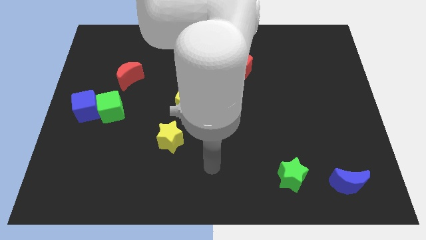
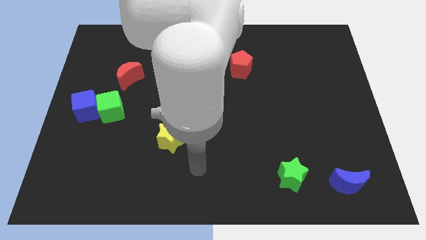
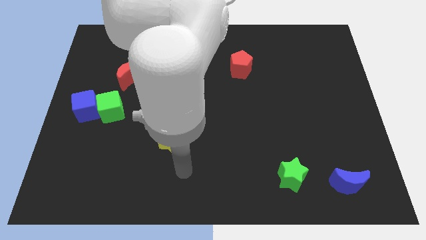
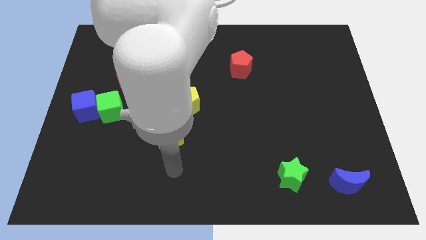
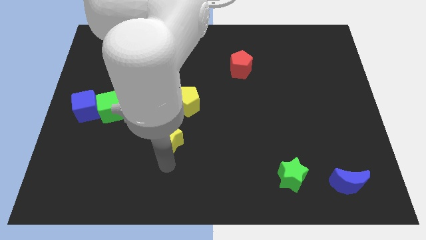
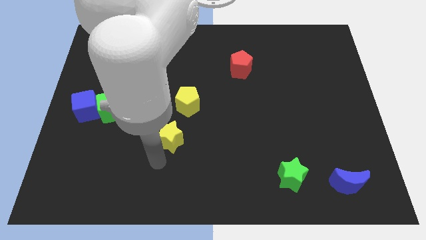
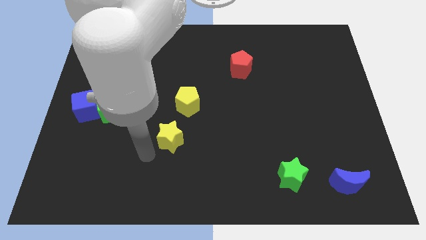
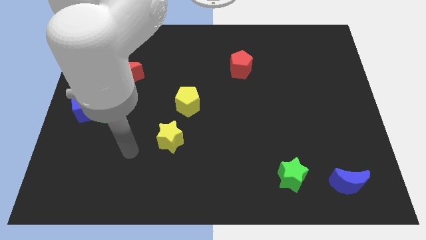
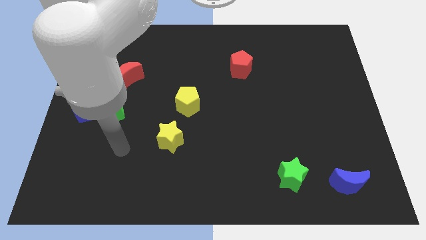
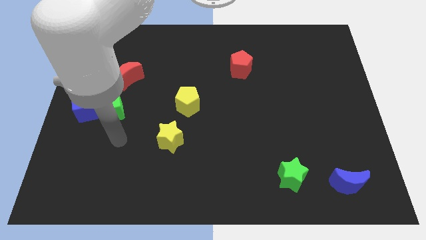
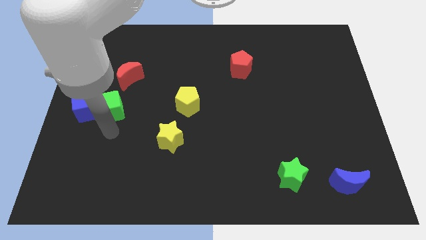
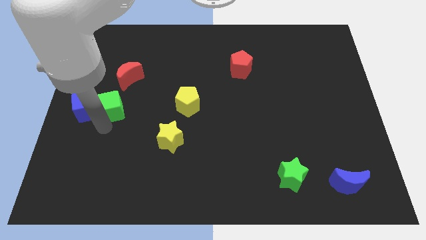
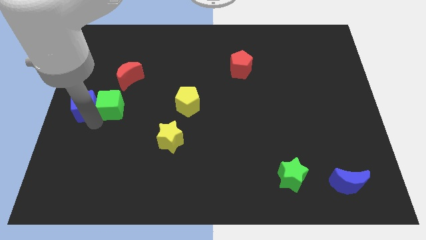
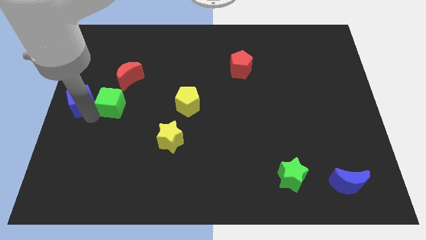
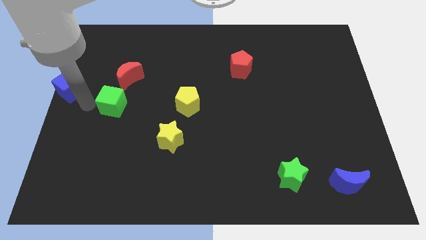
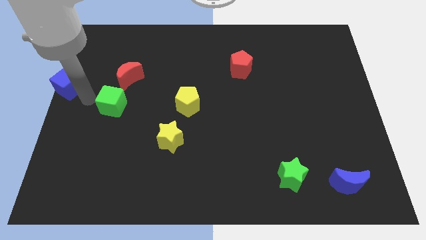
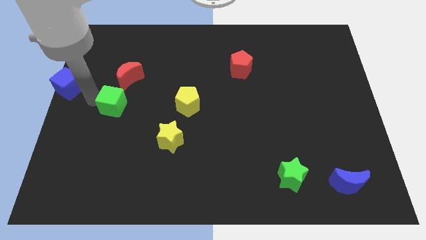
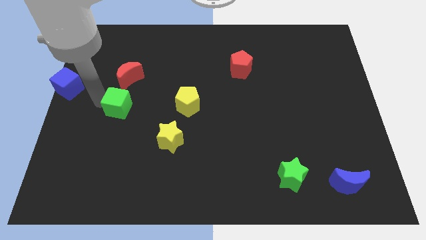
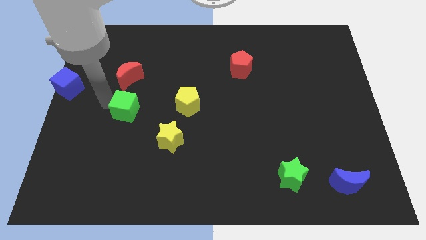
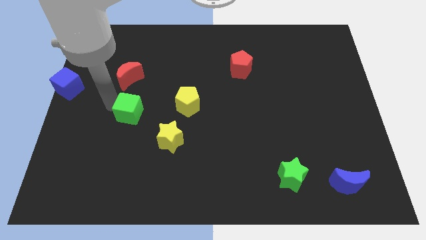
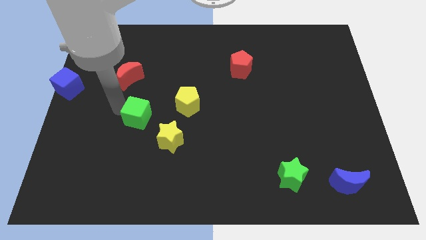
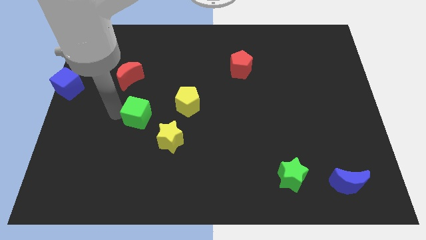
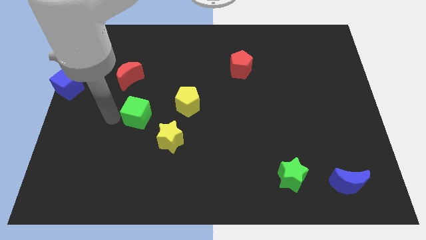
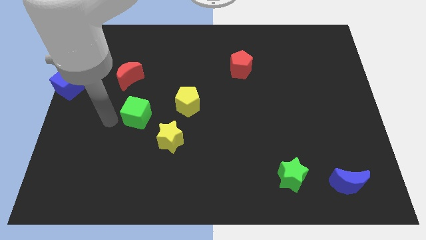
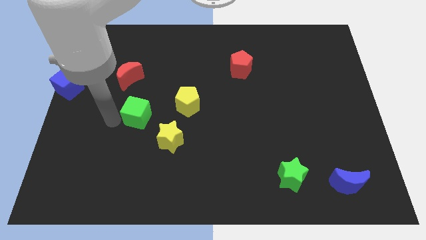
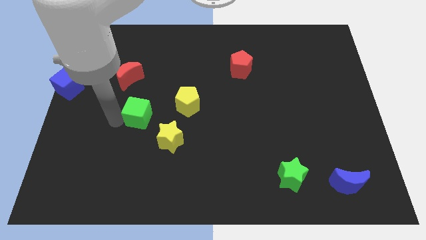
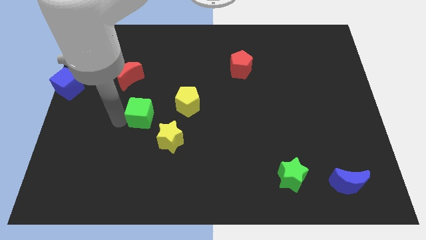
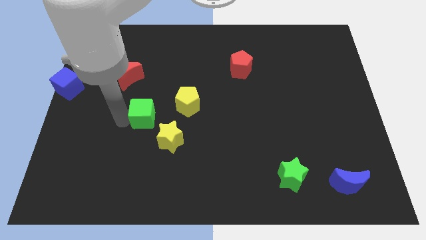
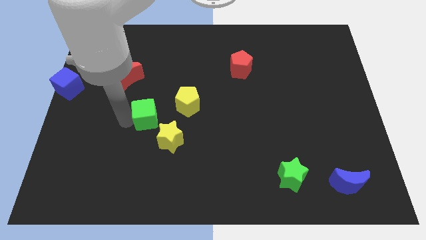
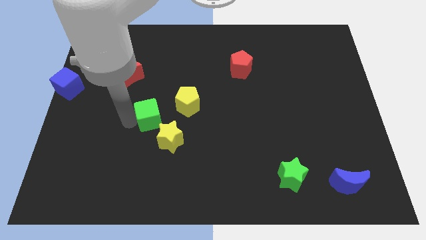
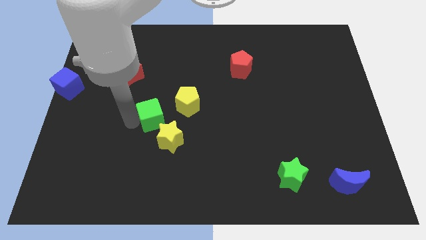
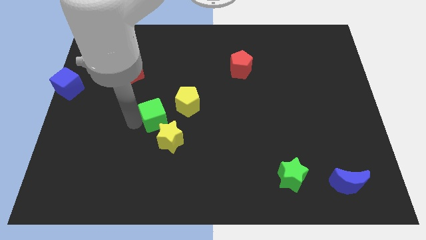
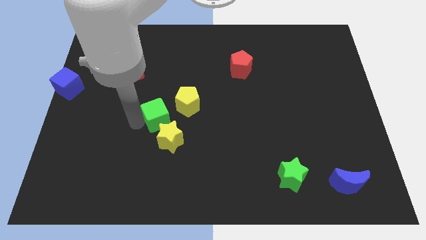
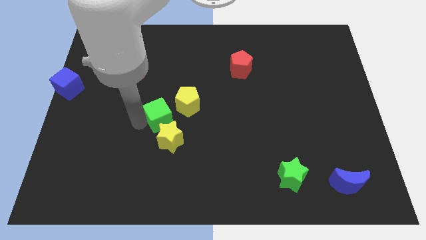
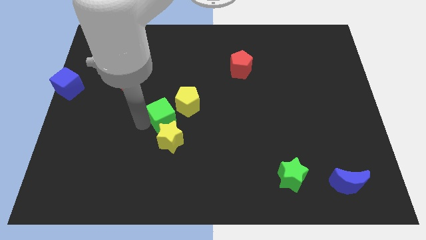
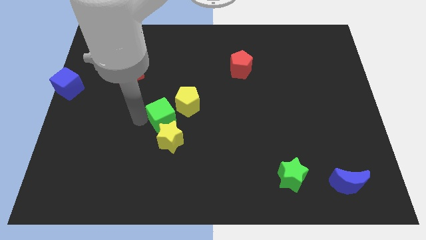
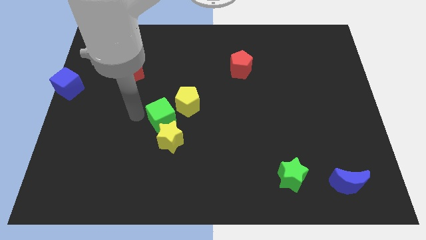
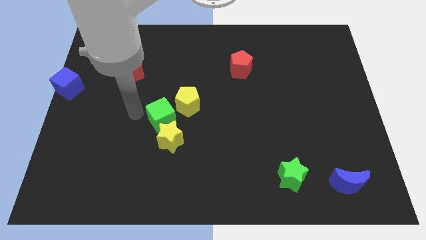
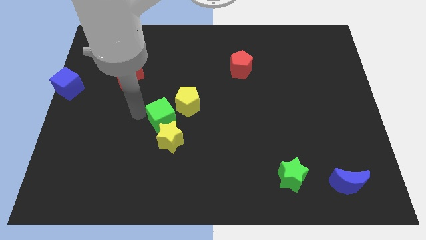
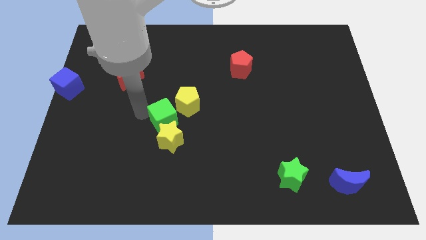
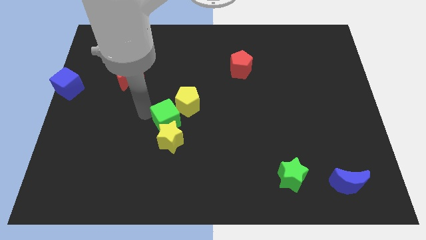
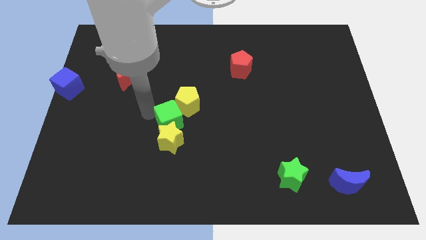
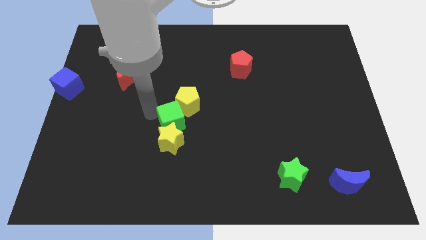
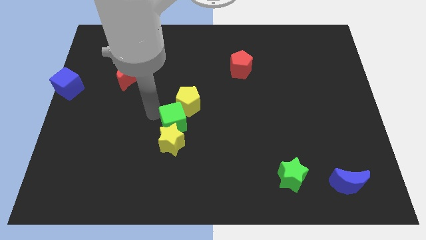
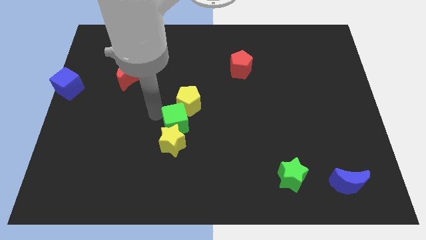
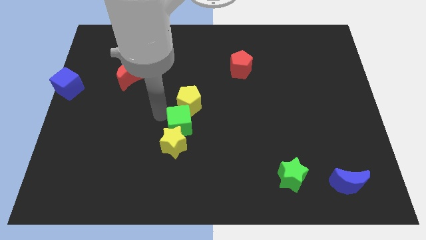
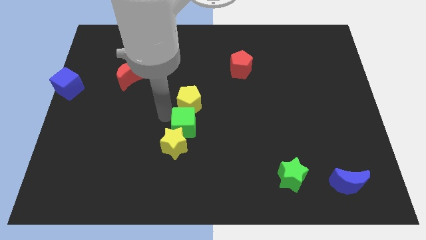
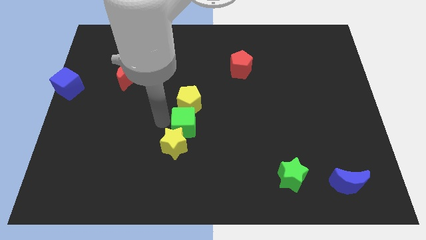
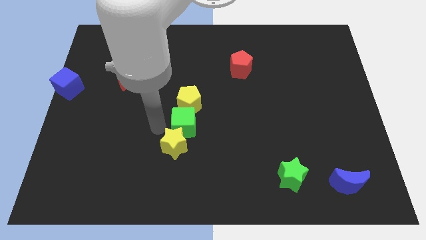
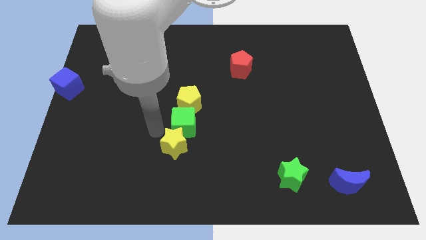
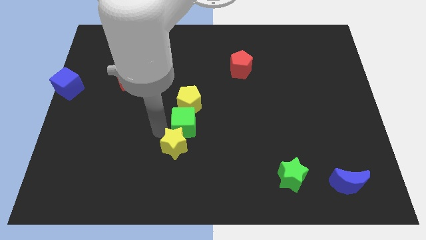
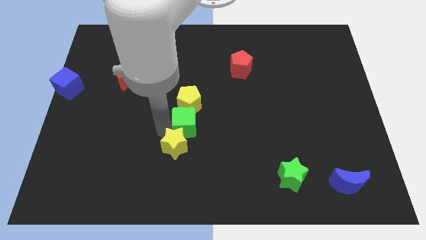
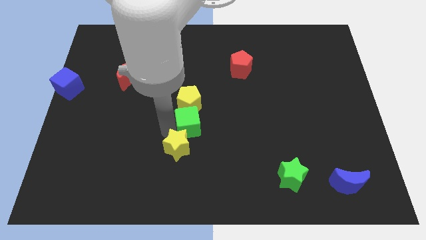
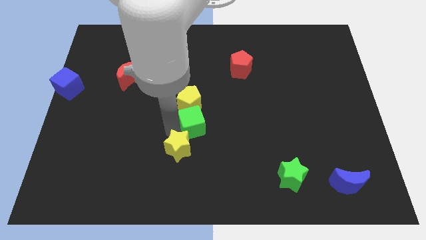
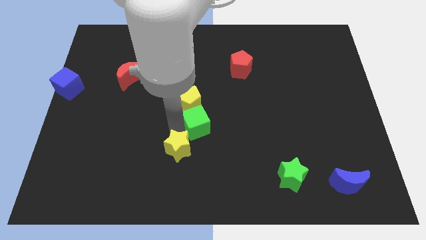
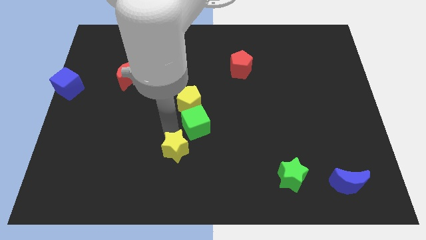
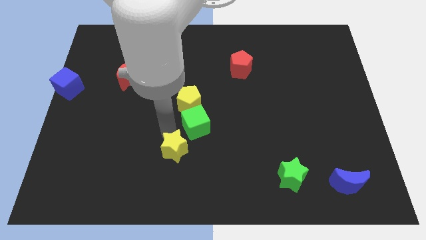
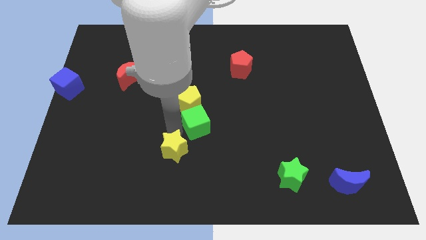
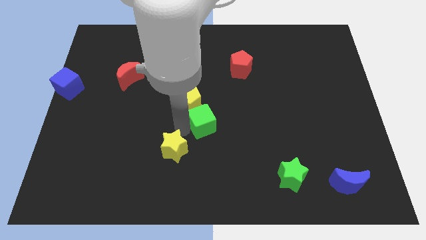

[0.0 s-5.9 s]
push the green cube to the right

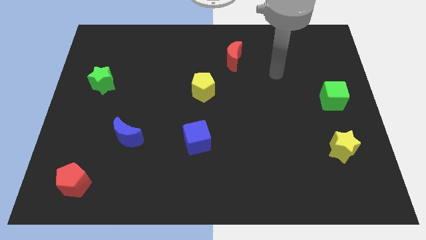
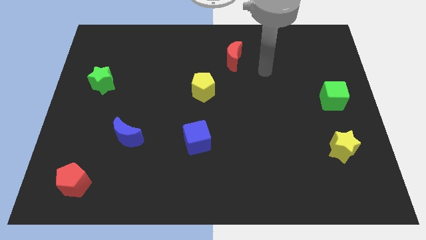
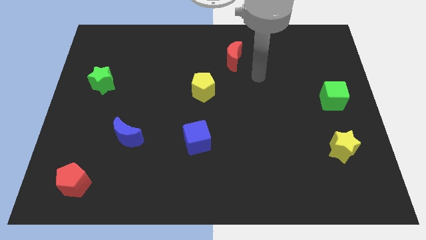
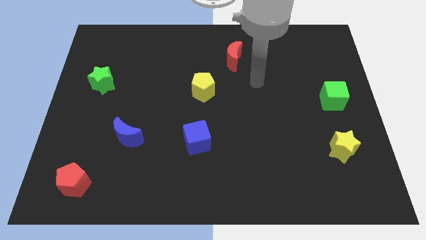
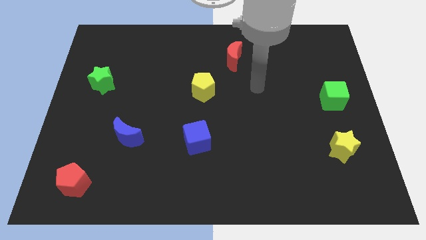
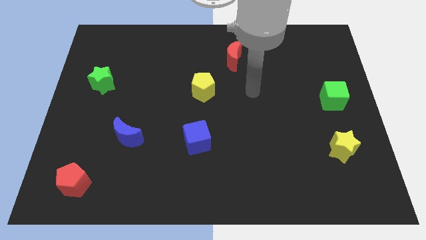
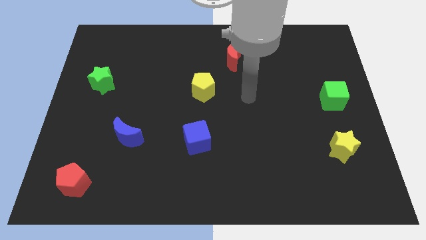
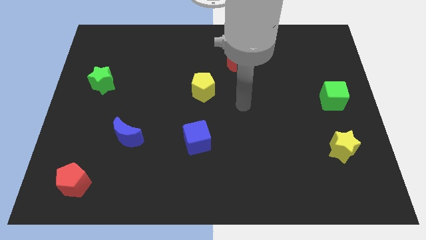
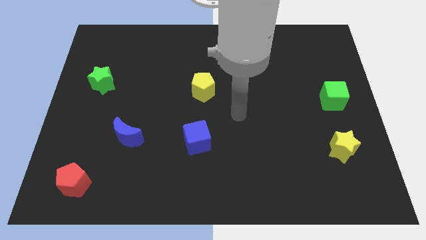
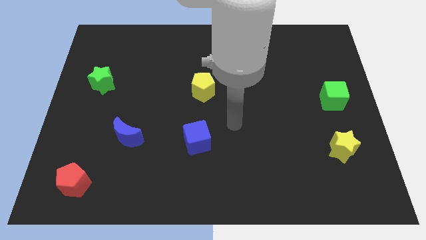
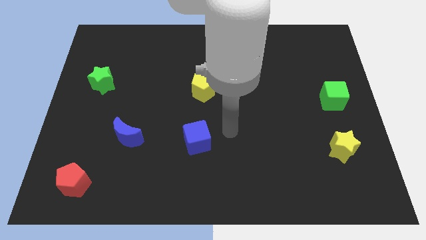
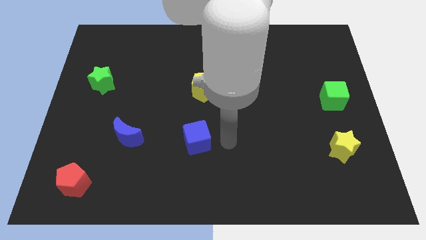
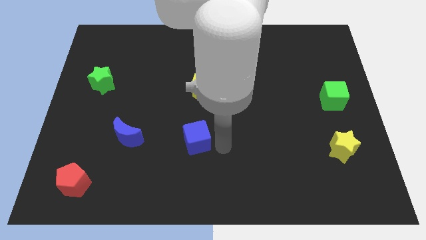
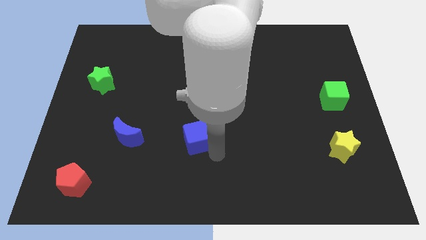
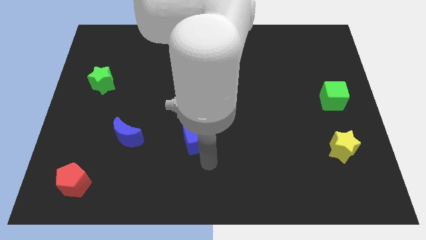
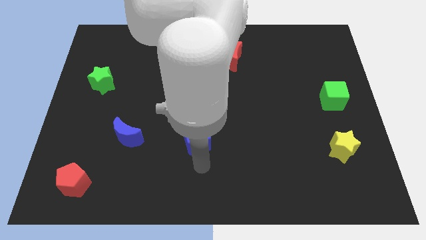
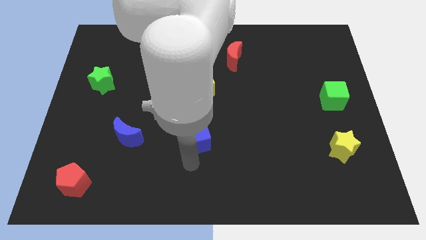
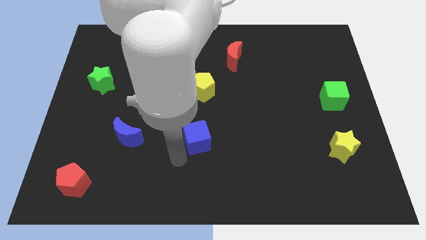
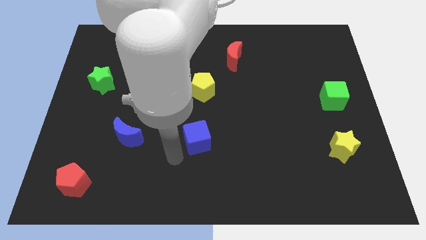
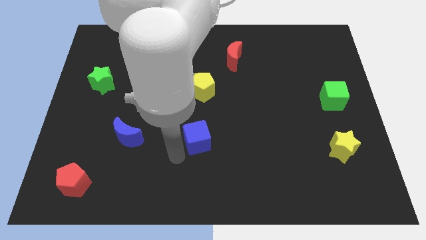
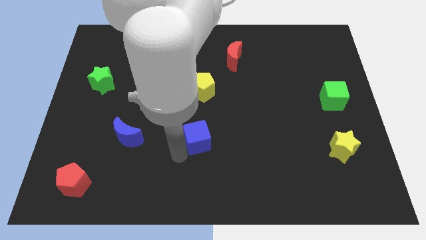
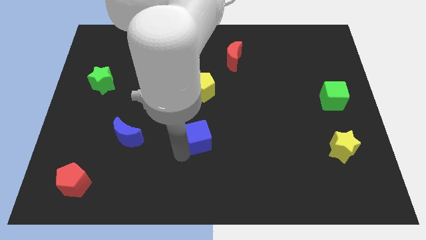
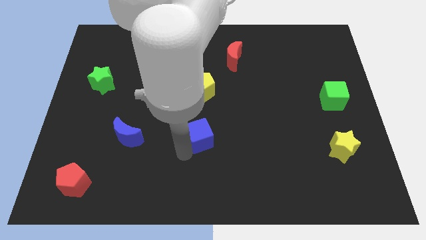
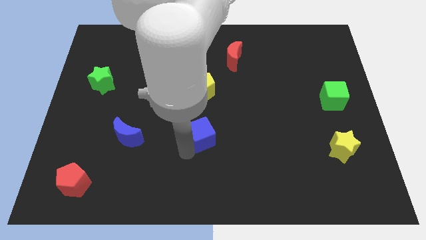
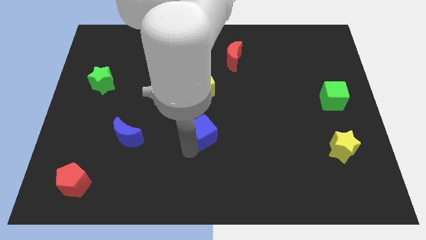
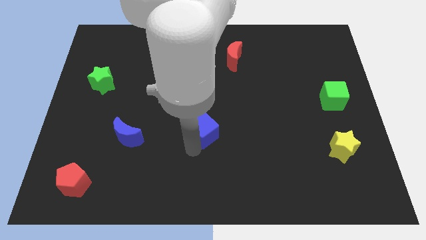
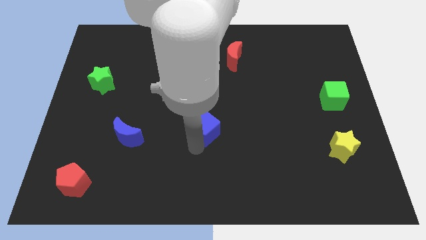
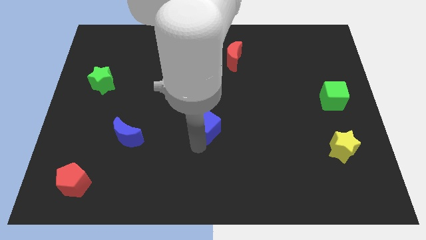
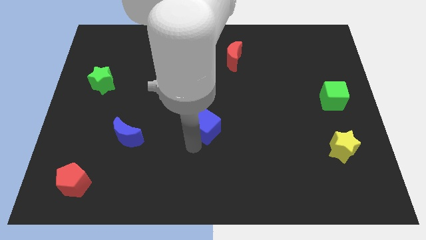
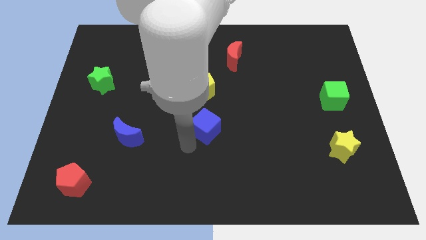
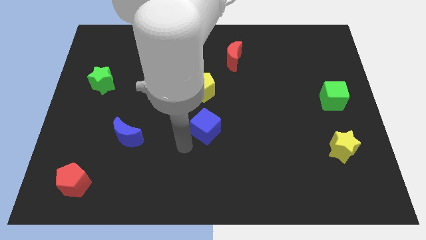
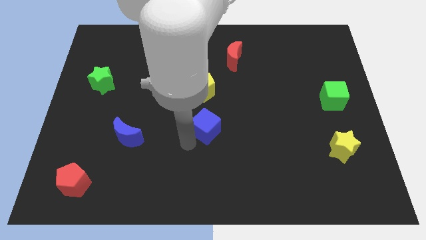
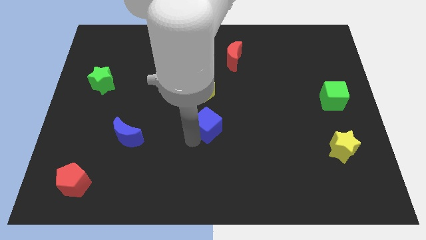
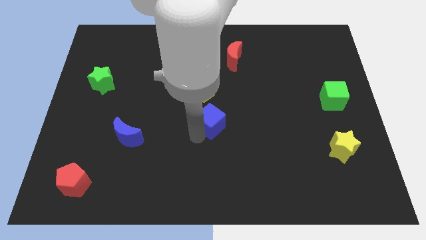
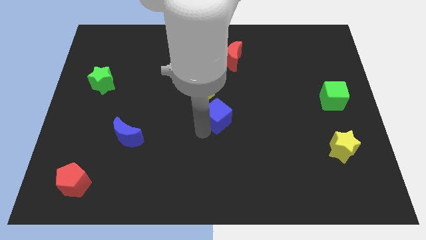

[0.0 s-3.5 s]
slightly move the blue cube up and right diagonally
